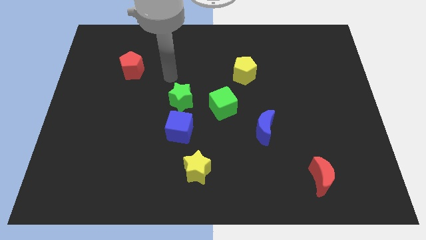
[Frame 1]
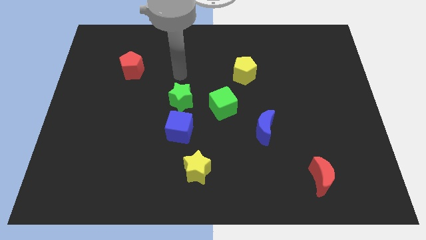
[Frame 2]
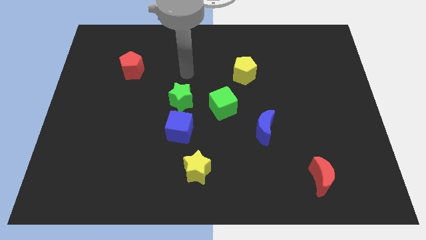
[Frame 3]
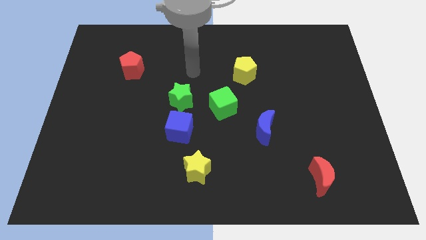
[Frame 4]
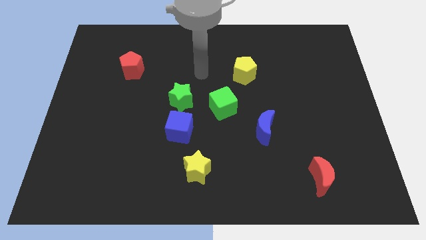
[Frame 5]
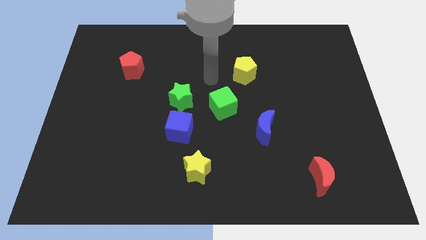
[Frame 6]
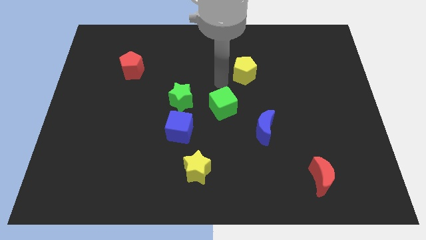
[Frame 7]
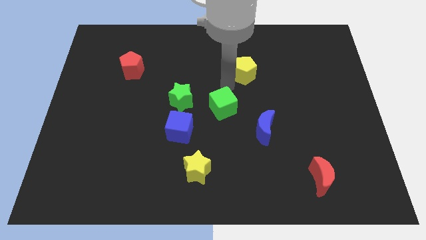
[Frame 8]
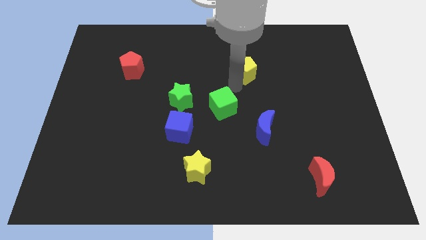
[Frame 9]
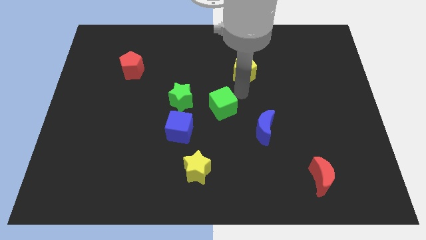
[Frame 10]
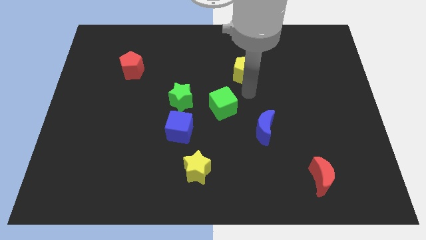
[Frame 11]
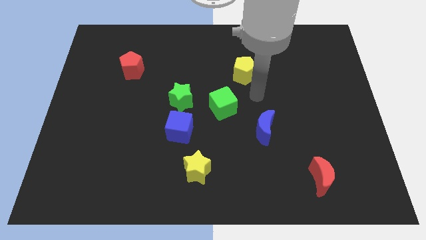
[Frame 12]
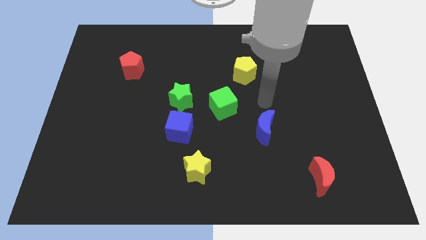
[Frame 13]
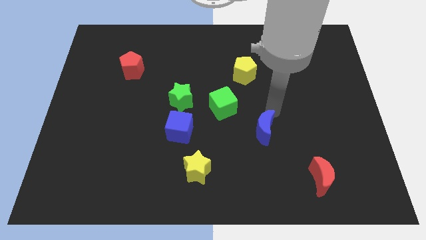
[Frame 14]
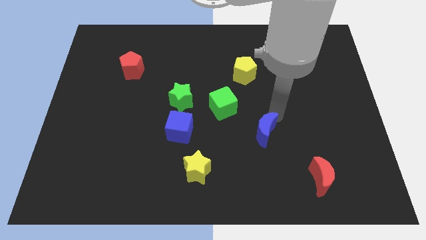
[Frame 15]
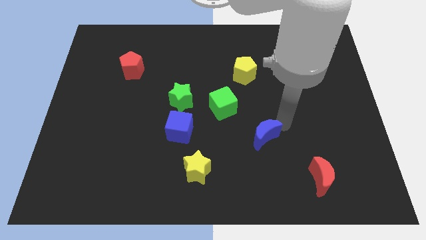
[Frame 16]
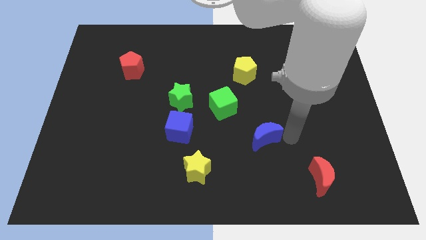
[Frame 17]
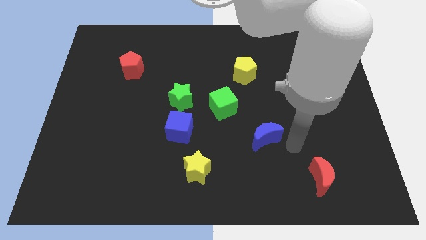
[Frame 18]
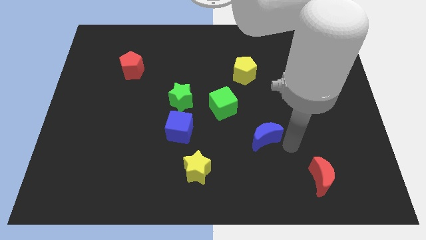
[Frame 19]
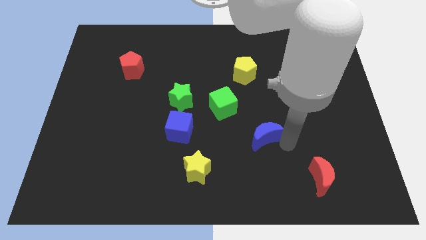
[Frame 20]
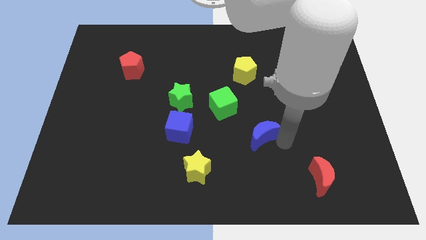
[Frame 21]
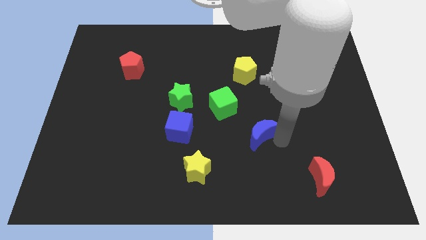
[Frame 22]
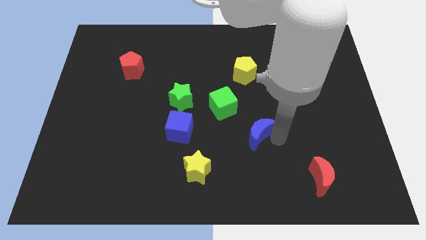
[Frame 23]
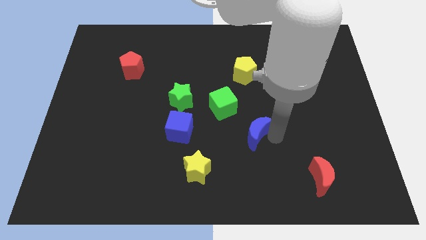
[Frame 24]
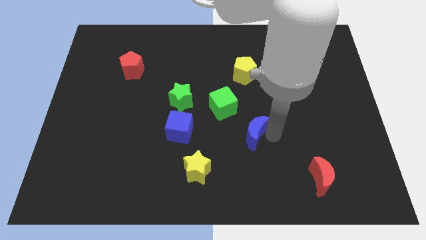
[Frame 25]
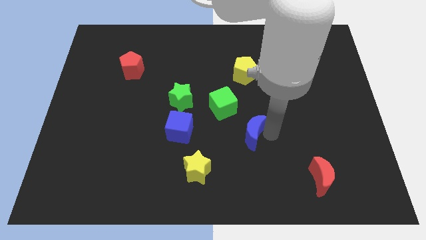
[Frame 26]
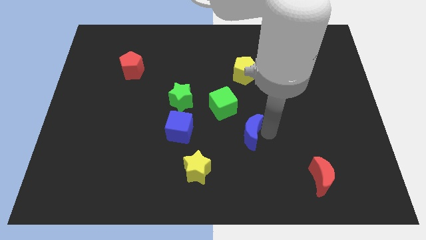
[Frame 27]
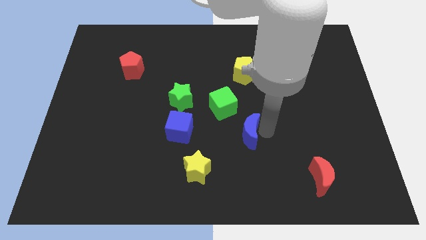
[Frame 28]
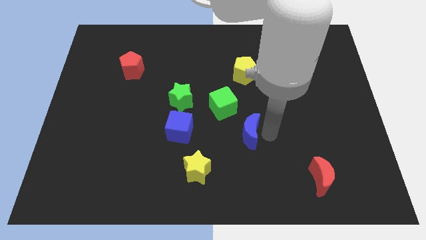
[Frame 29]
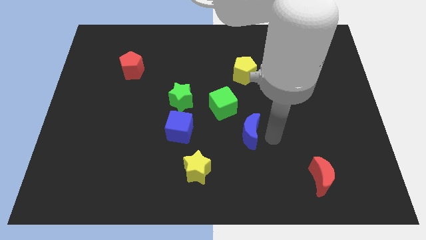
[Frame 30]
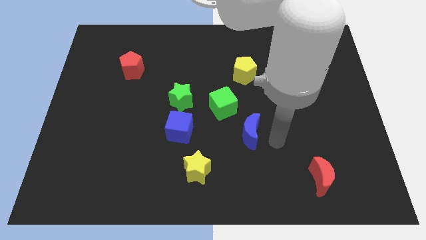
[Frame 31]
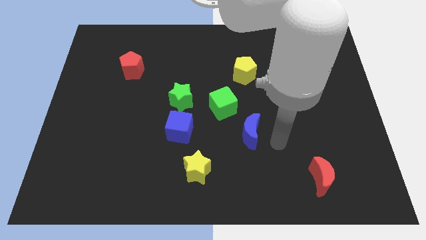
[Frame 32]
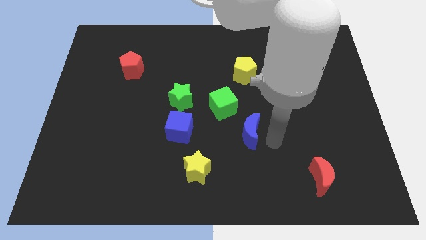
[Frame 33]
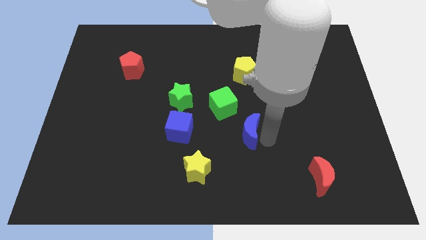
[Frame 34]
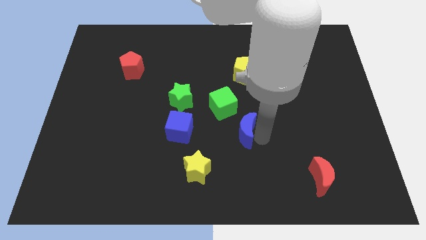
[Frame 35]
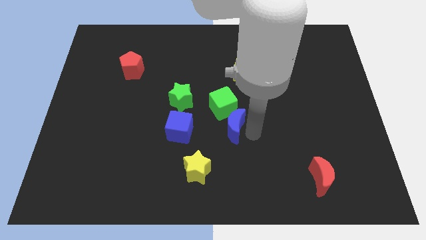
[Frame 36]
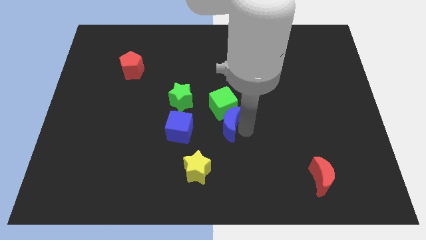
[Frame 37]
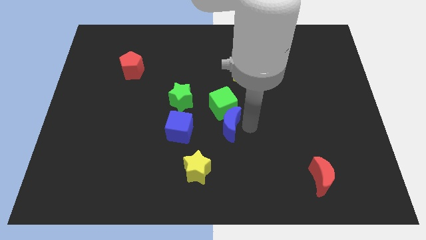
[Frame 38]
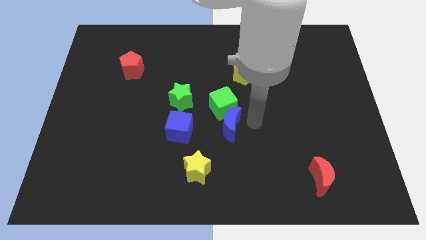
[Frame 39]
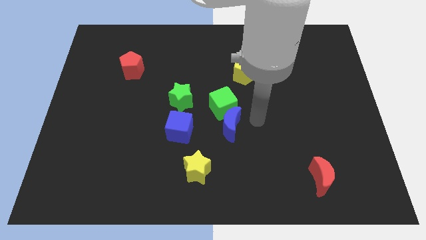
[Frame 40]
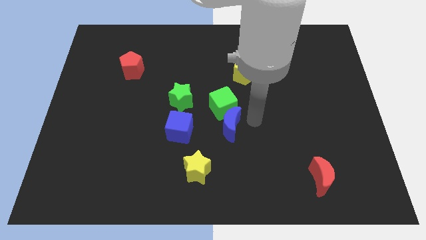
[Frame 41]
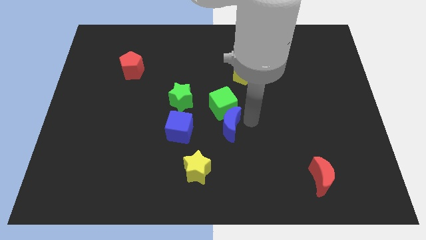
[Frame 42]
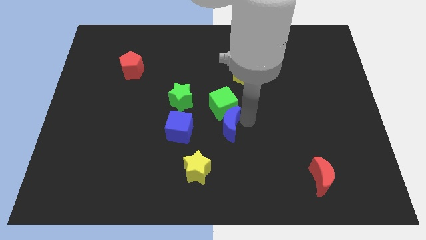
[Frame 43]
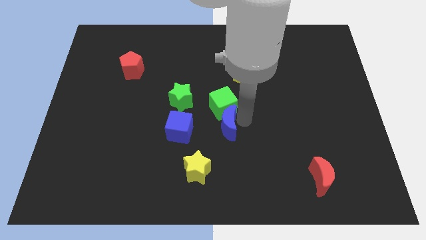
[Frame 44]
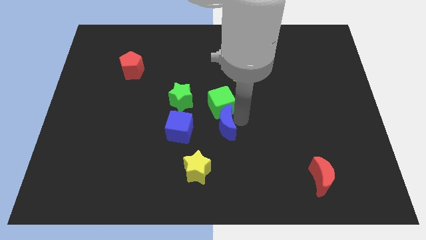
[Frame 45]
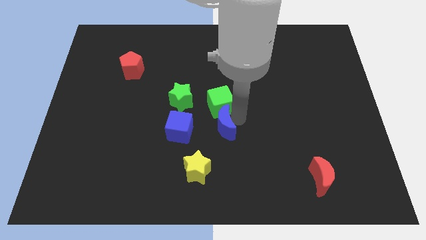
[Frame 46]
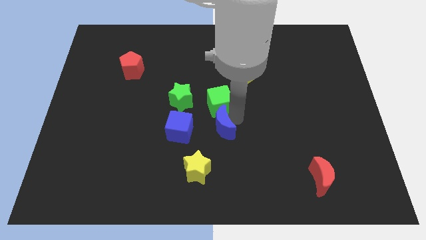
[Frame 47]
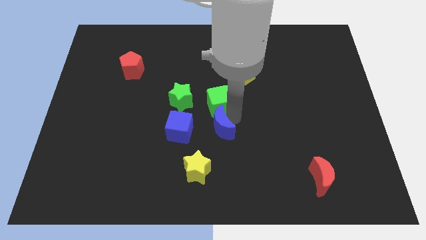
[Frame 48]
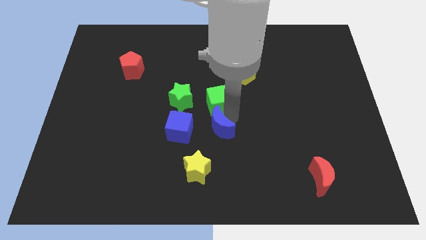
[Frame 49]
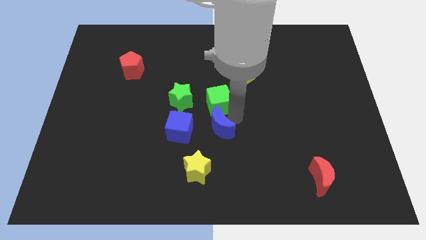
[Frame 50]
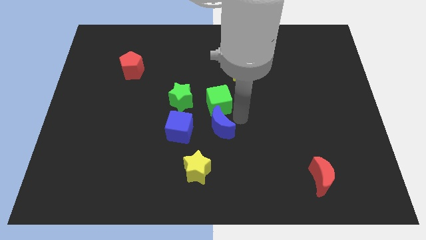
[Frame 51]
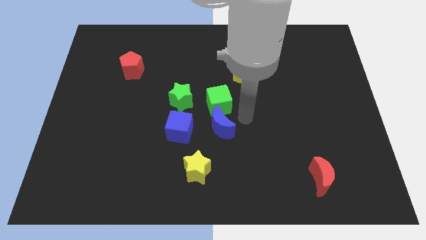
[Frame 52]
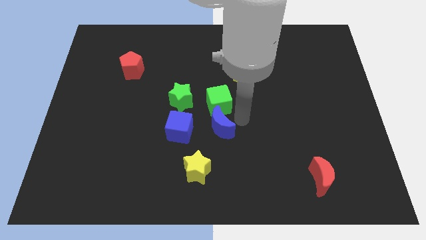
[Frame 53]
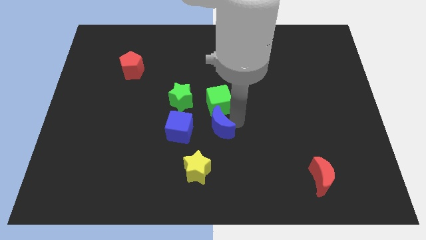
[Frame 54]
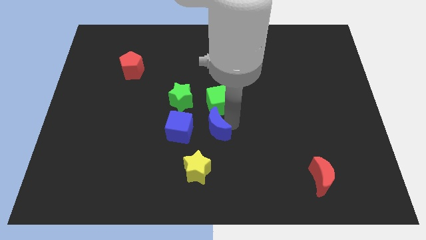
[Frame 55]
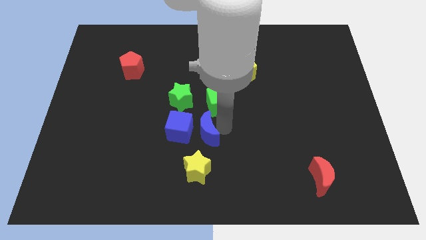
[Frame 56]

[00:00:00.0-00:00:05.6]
move the blue moon close to the blue cube
